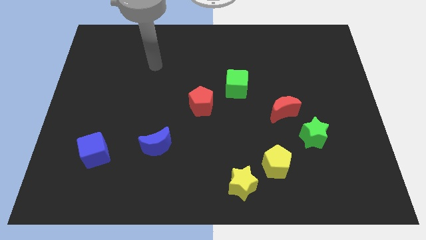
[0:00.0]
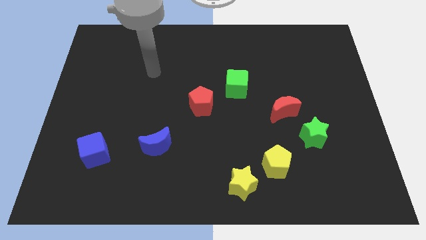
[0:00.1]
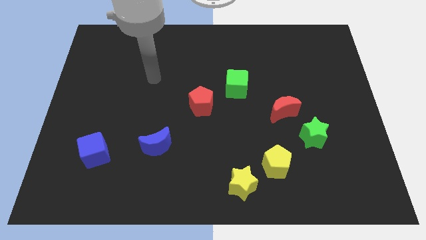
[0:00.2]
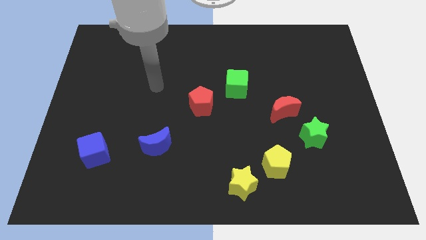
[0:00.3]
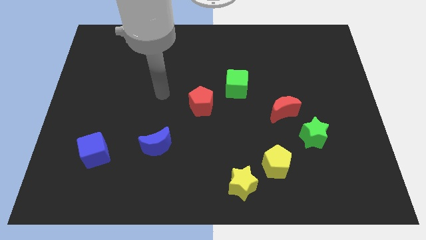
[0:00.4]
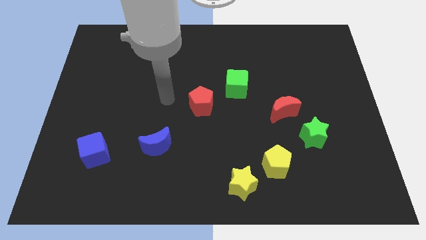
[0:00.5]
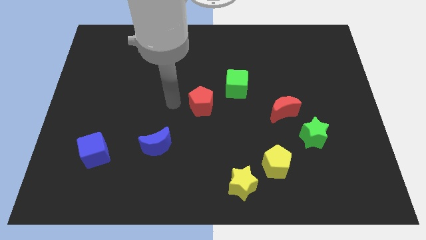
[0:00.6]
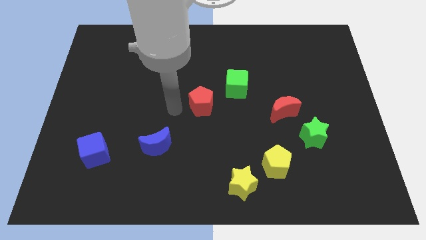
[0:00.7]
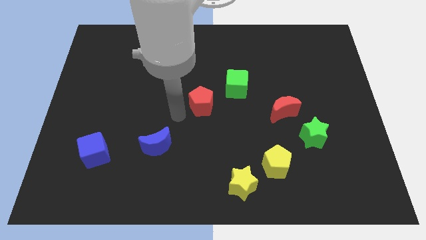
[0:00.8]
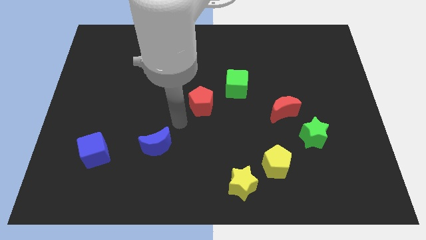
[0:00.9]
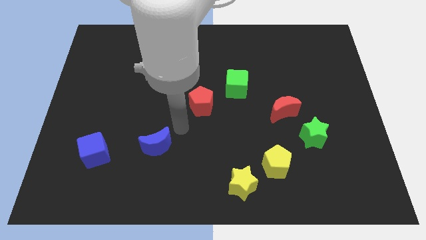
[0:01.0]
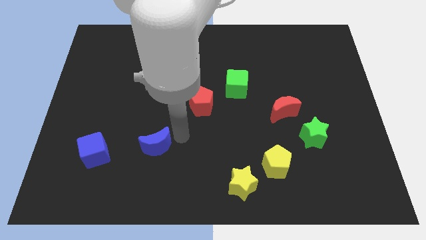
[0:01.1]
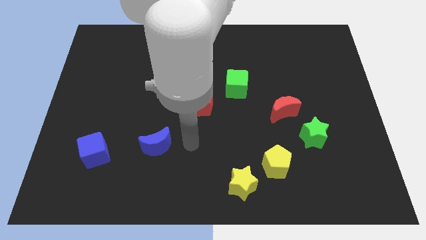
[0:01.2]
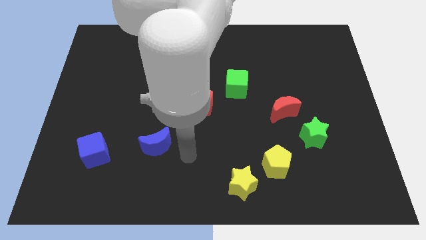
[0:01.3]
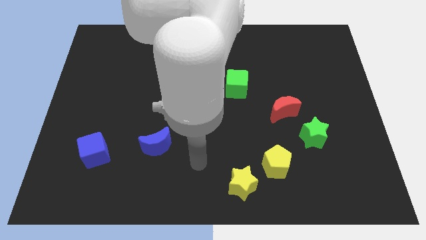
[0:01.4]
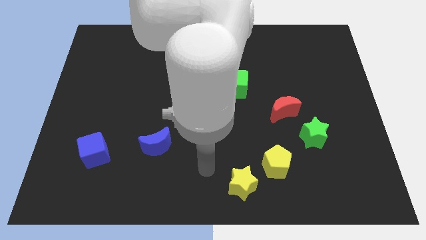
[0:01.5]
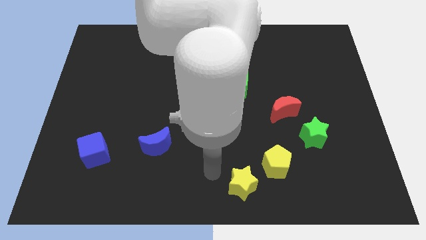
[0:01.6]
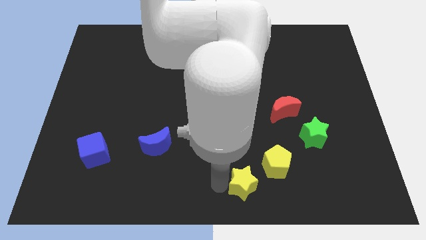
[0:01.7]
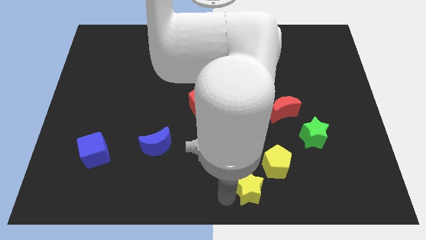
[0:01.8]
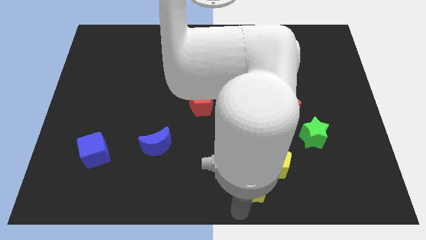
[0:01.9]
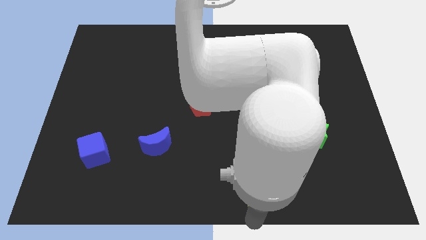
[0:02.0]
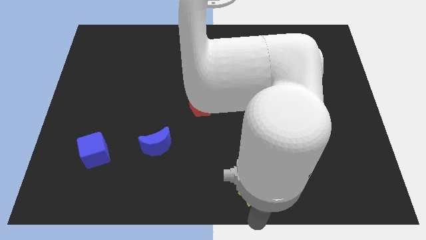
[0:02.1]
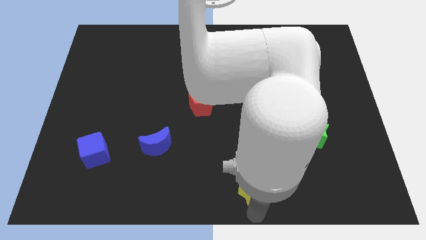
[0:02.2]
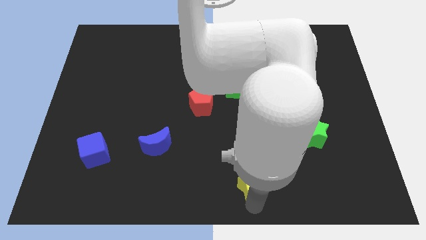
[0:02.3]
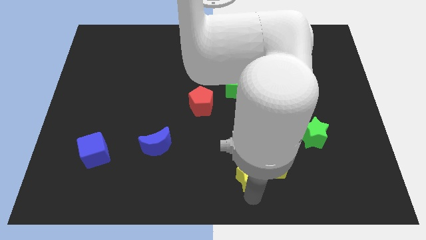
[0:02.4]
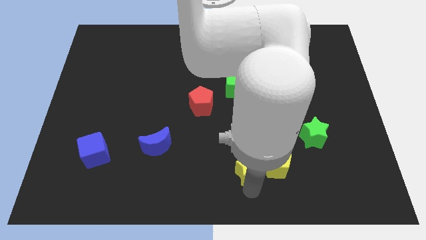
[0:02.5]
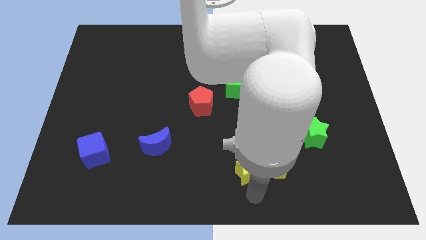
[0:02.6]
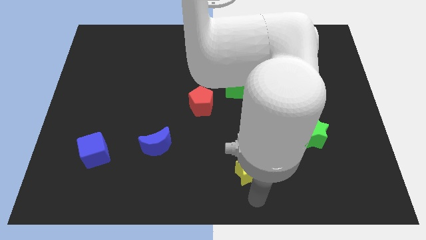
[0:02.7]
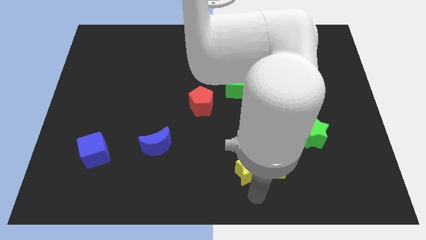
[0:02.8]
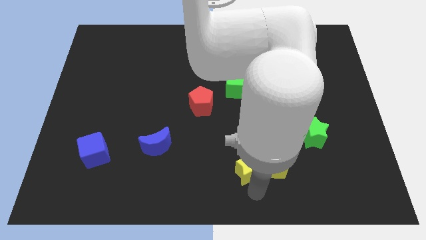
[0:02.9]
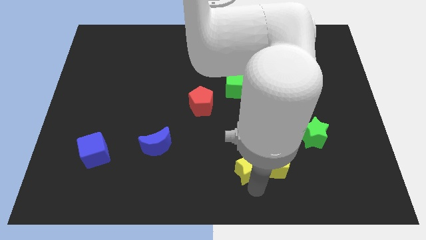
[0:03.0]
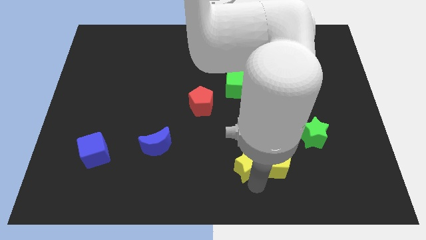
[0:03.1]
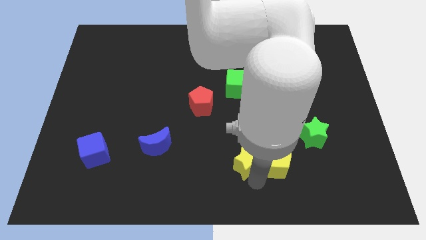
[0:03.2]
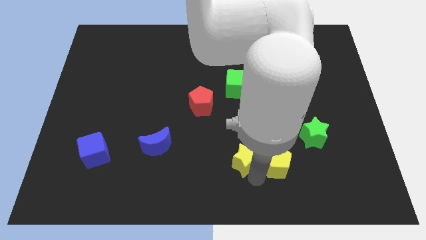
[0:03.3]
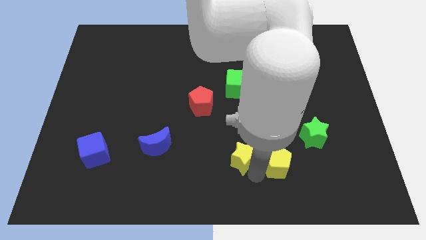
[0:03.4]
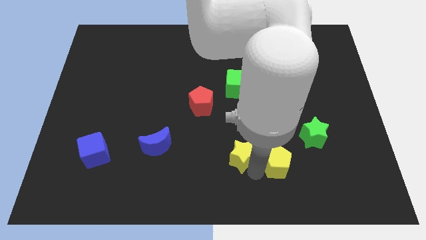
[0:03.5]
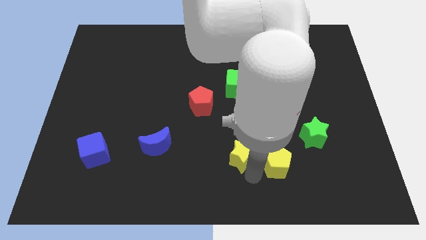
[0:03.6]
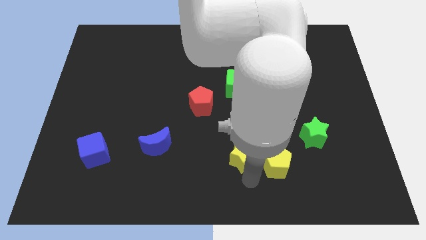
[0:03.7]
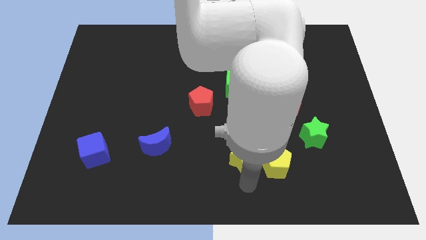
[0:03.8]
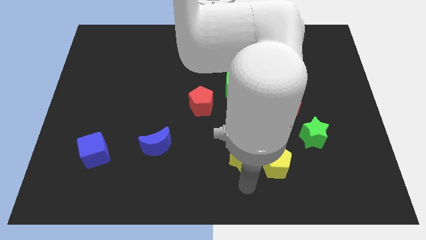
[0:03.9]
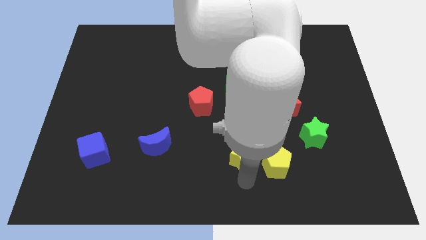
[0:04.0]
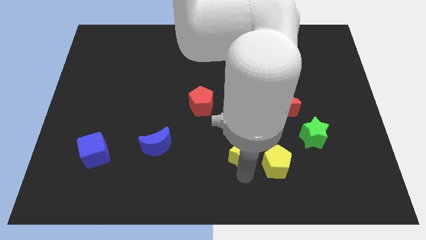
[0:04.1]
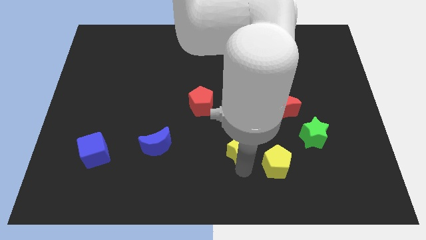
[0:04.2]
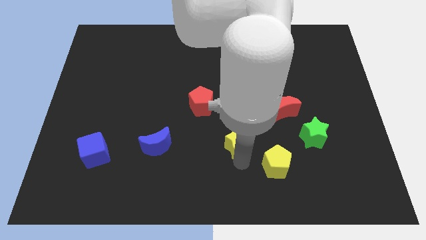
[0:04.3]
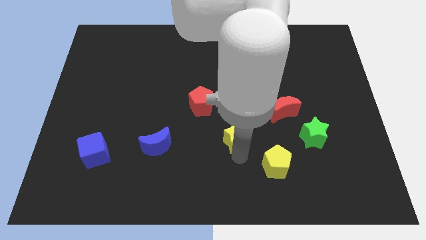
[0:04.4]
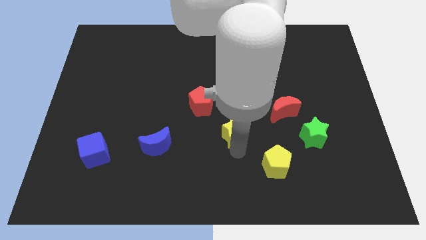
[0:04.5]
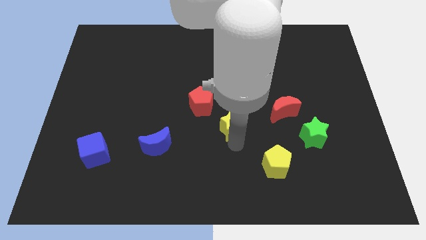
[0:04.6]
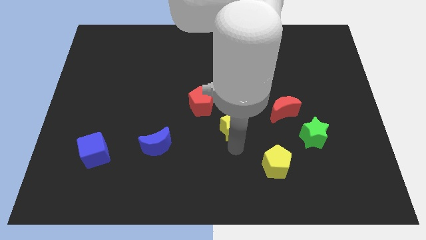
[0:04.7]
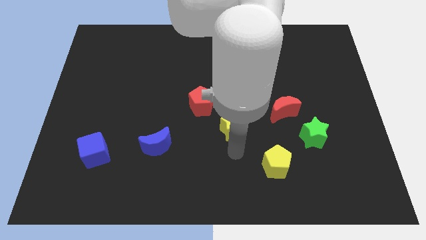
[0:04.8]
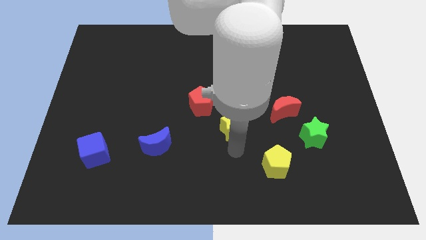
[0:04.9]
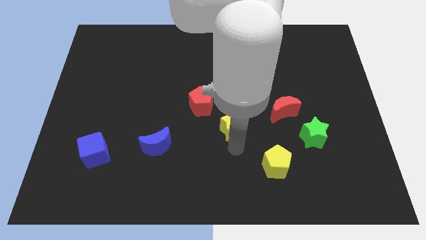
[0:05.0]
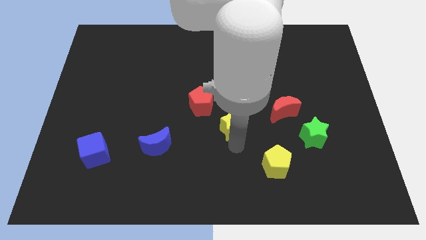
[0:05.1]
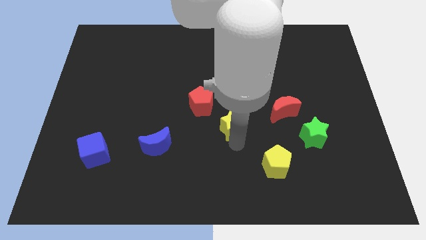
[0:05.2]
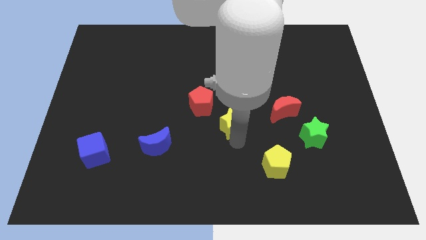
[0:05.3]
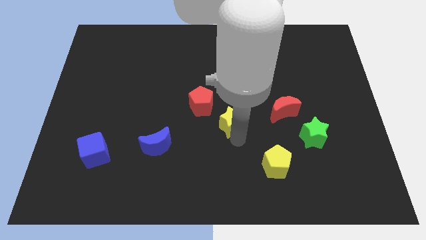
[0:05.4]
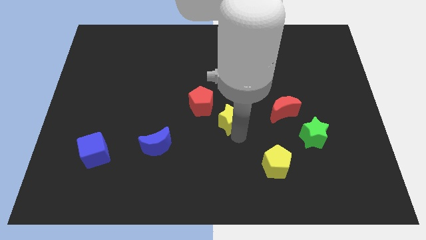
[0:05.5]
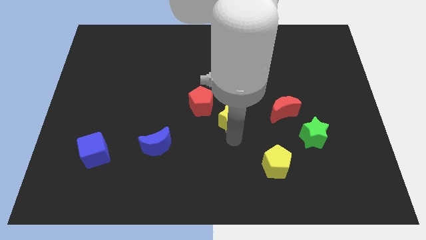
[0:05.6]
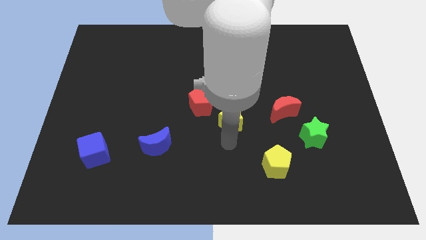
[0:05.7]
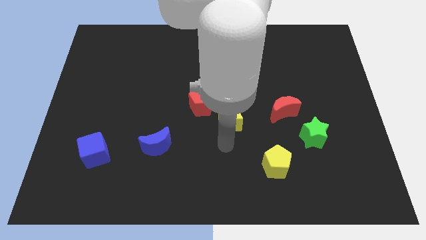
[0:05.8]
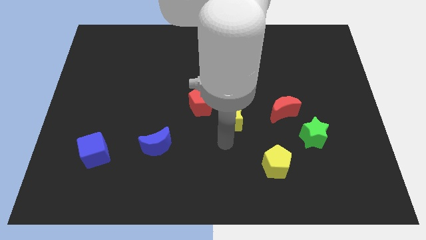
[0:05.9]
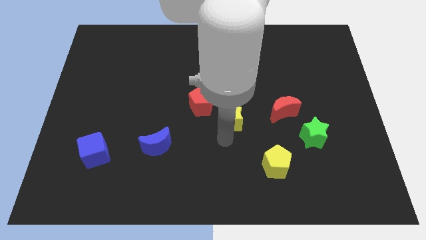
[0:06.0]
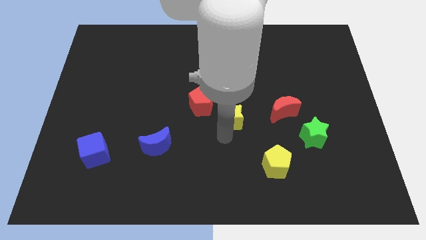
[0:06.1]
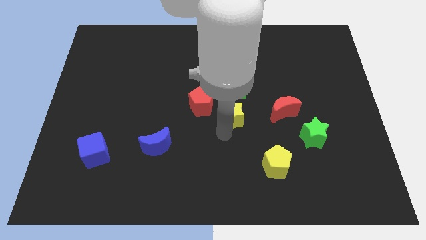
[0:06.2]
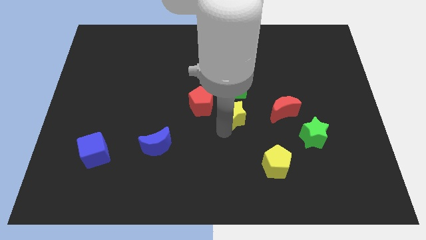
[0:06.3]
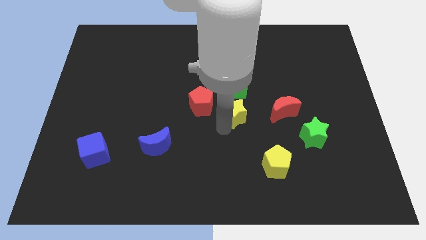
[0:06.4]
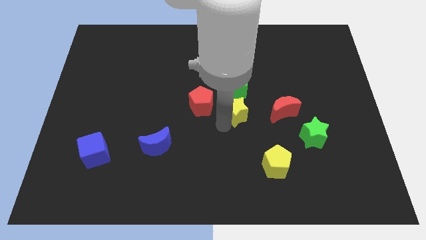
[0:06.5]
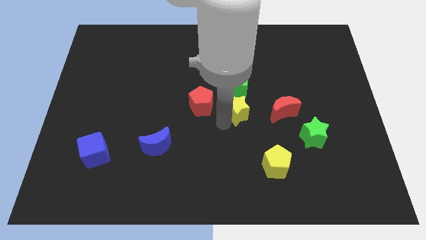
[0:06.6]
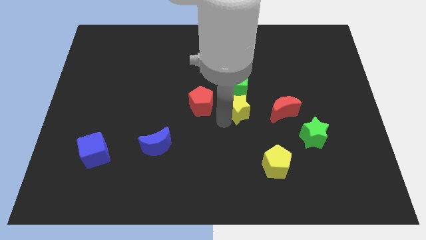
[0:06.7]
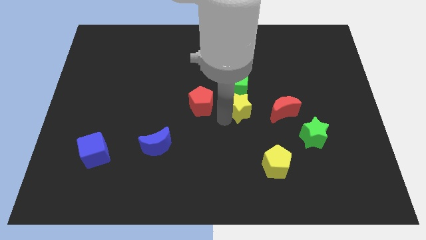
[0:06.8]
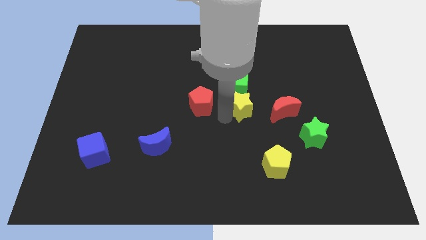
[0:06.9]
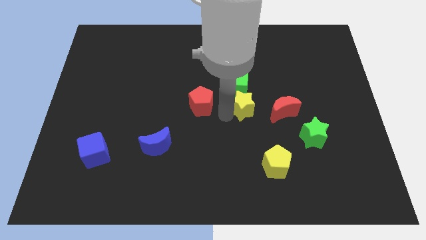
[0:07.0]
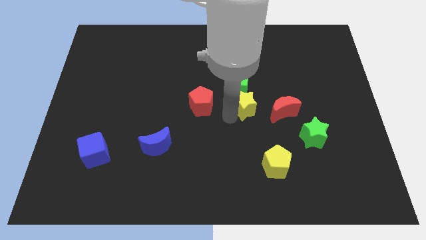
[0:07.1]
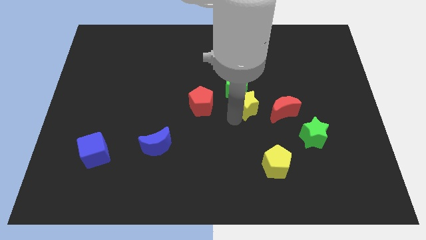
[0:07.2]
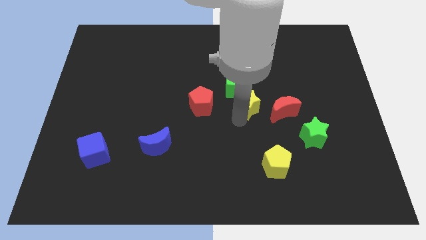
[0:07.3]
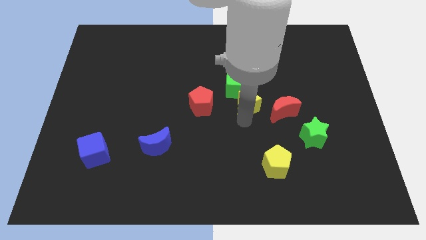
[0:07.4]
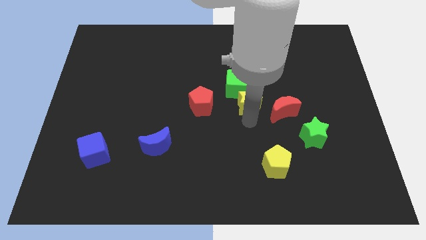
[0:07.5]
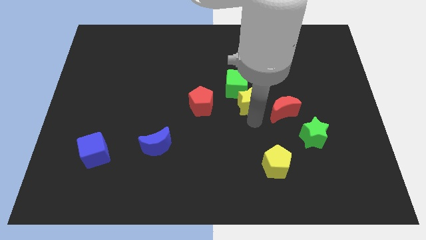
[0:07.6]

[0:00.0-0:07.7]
slide the yellow star to the green cube
